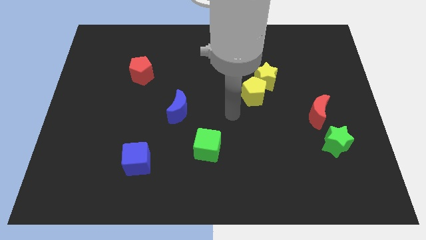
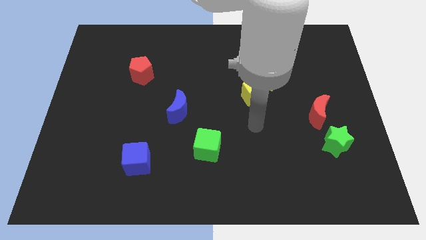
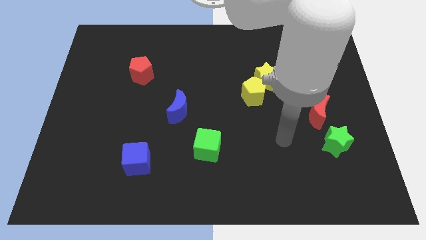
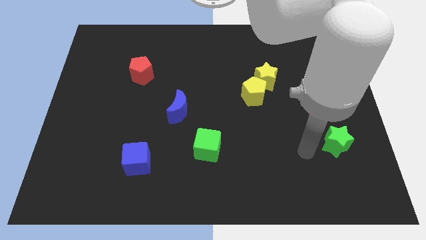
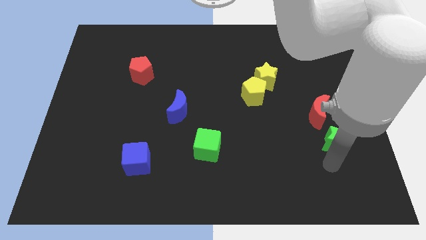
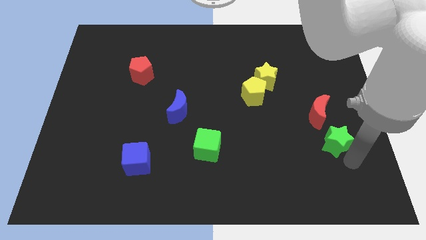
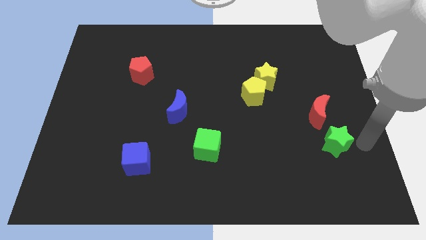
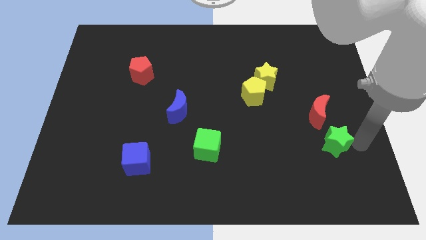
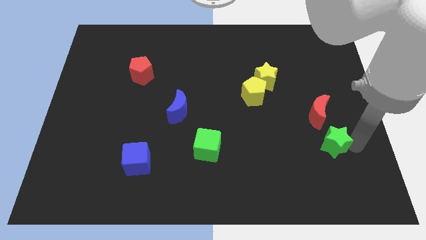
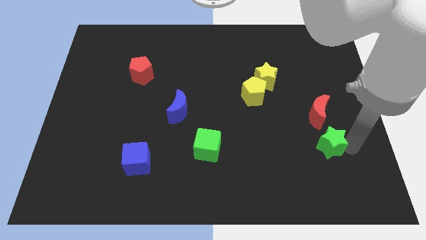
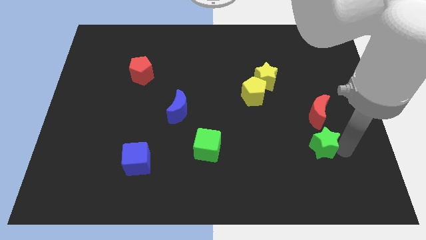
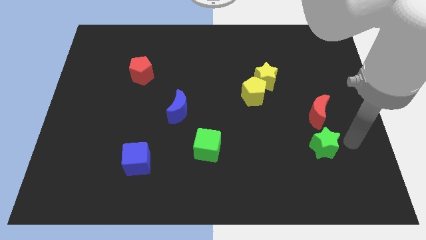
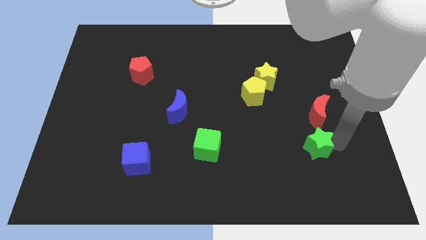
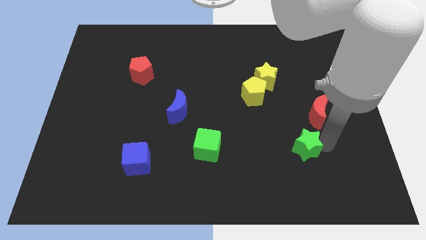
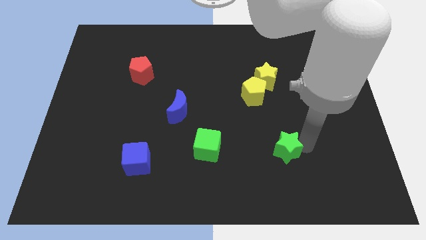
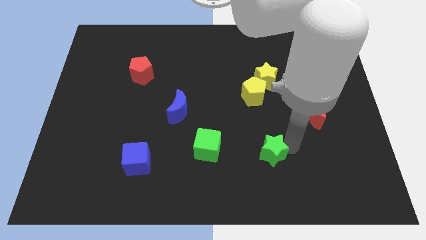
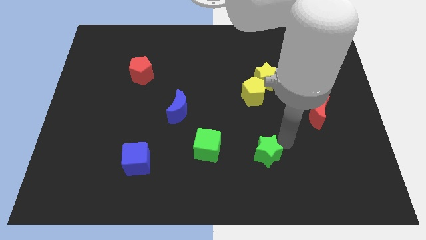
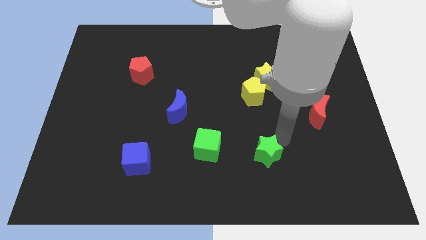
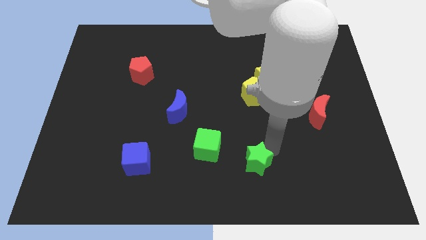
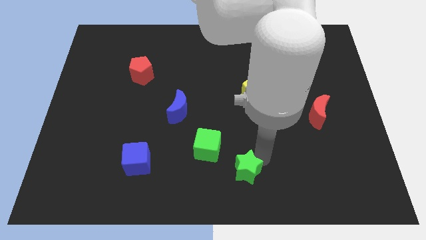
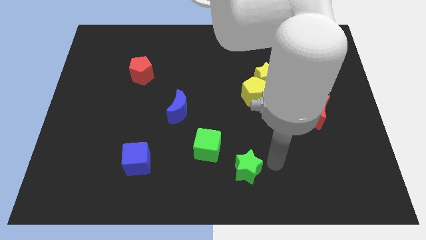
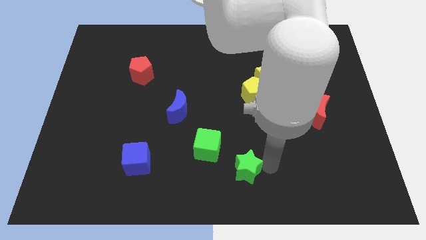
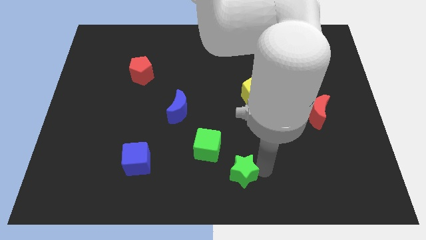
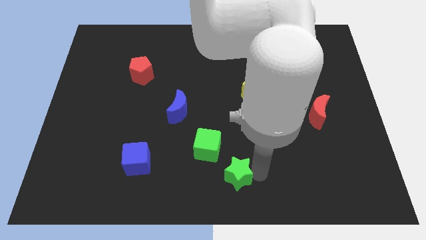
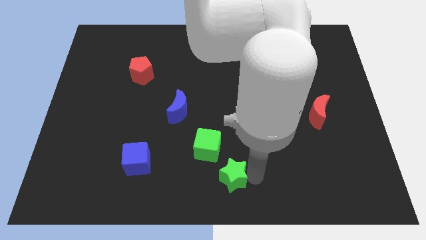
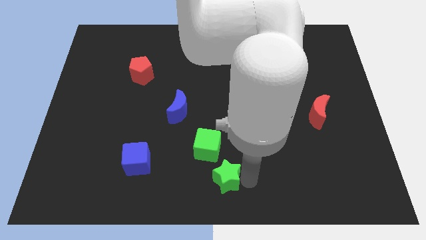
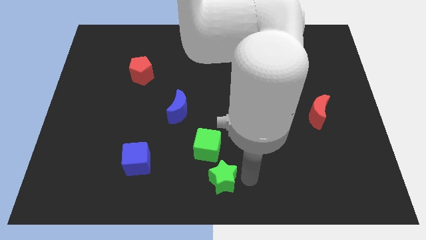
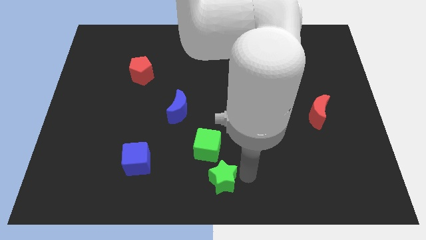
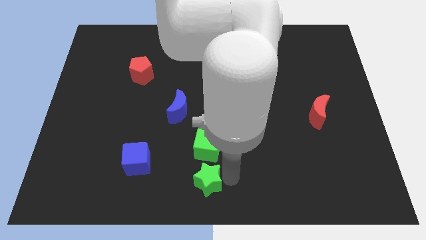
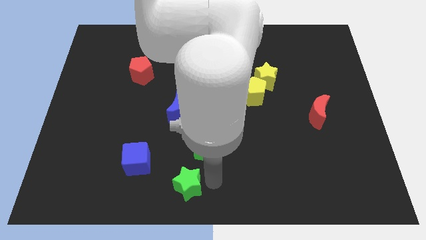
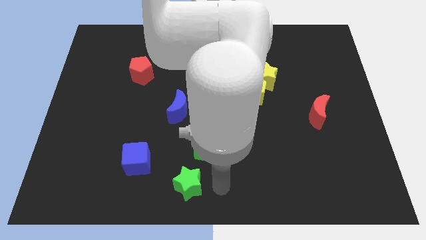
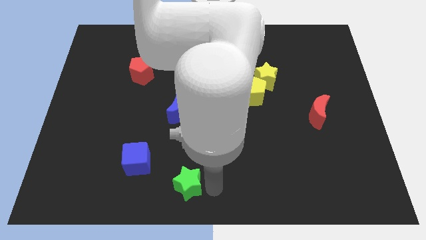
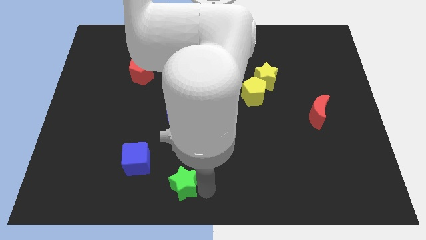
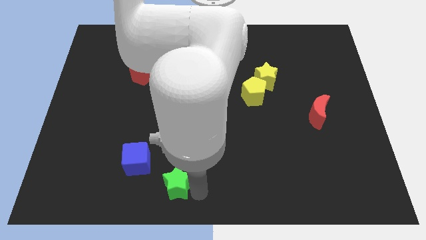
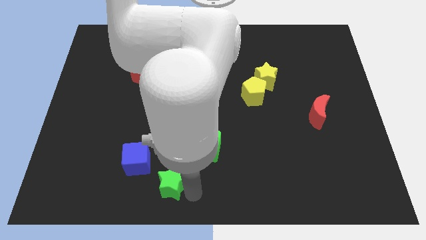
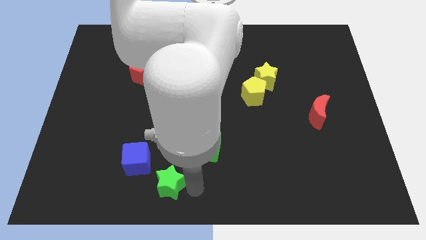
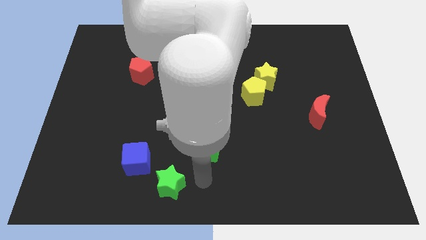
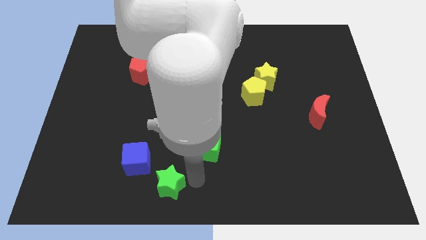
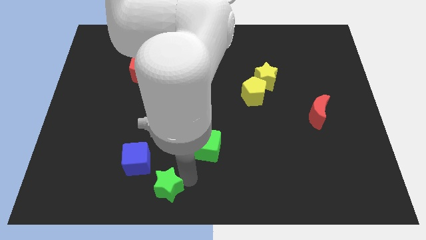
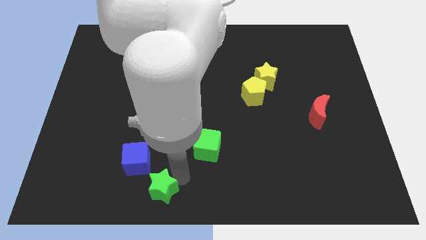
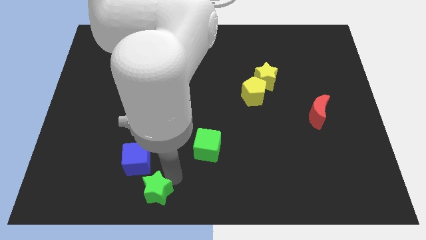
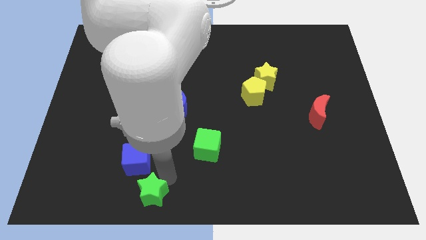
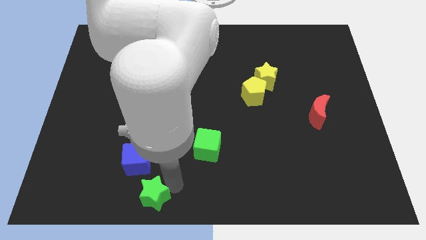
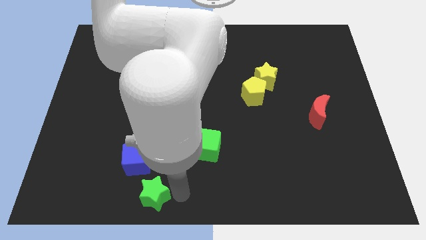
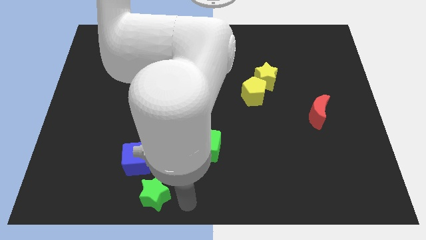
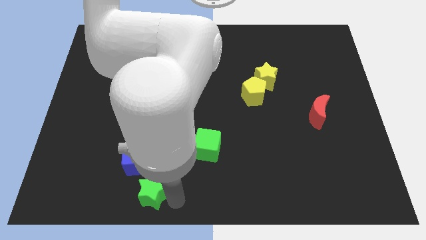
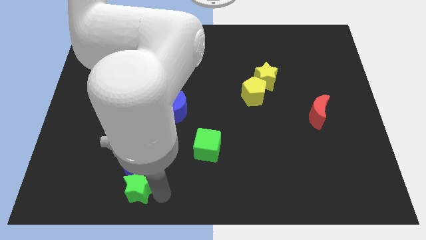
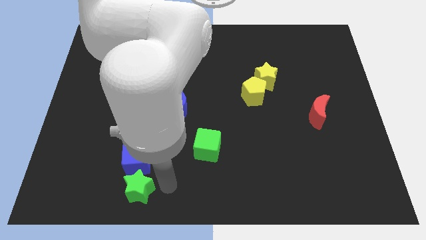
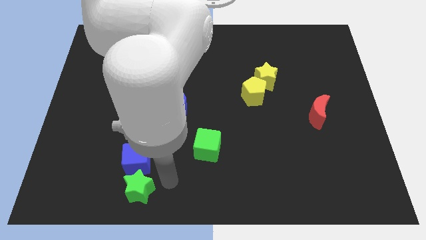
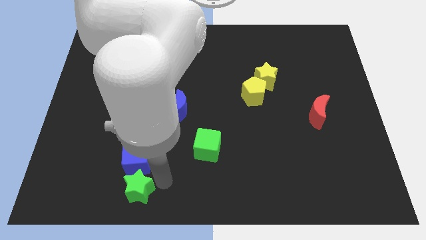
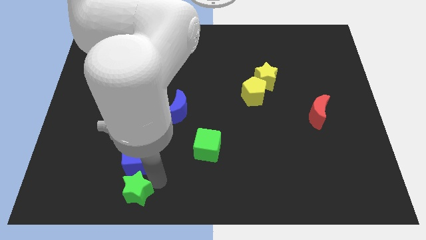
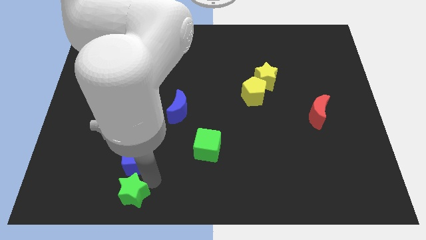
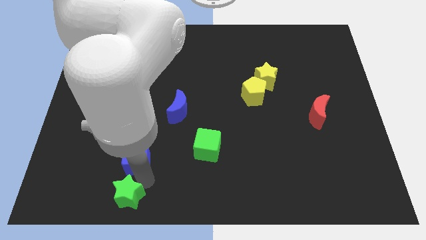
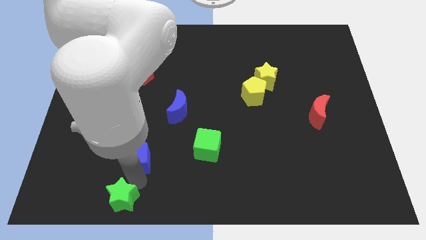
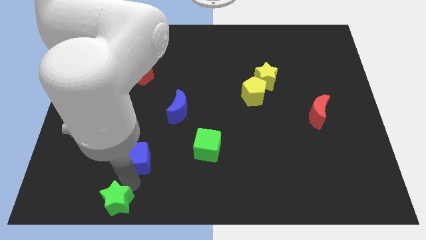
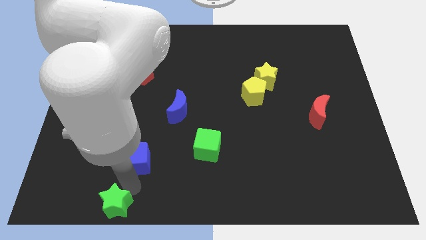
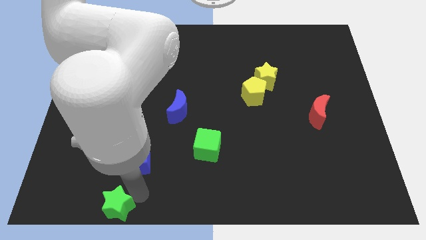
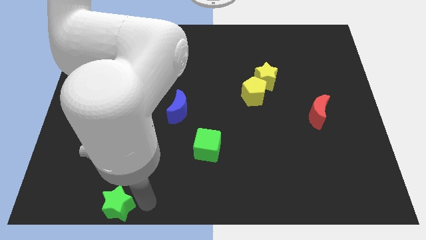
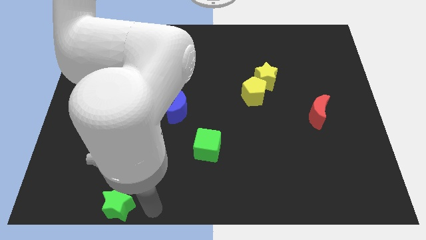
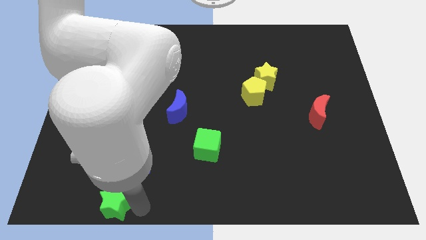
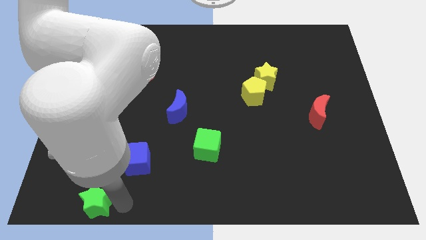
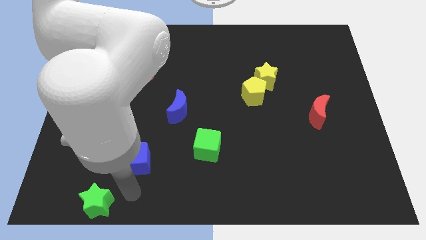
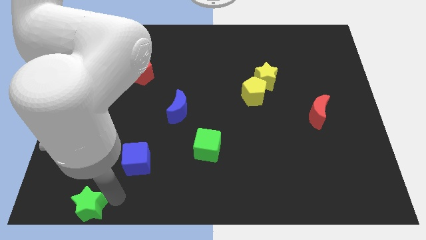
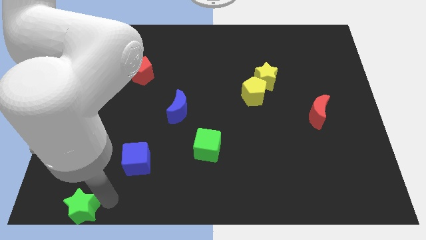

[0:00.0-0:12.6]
put the green star to the bottom left corner

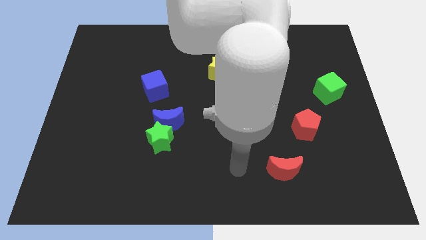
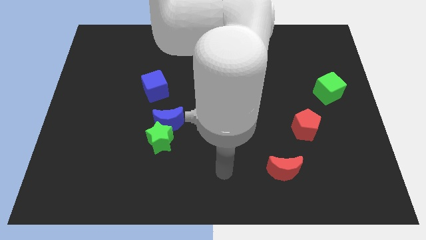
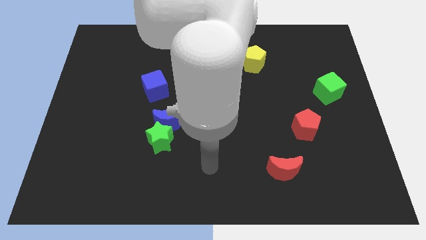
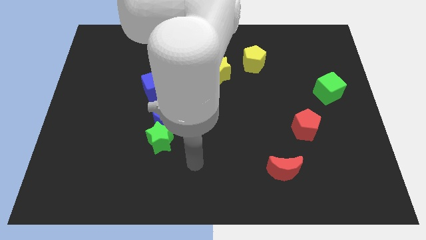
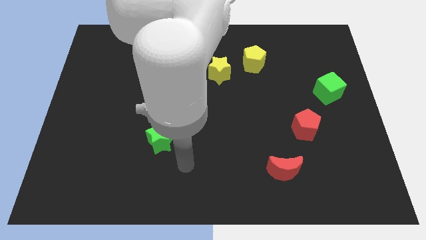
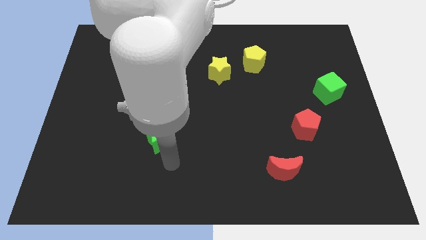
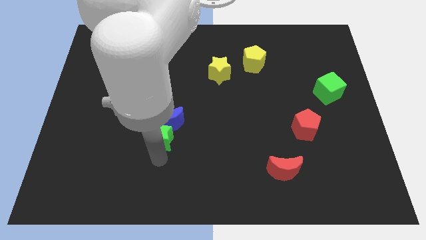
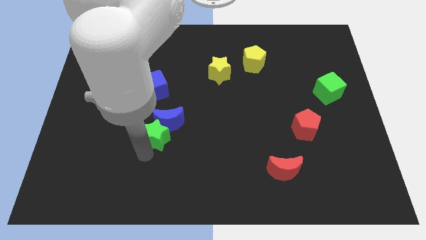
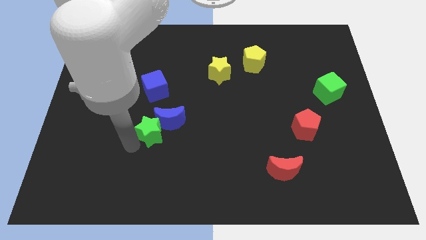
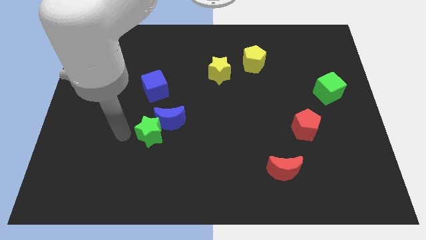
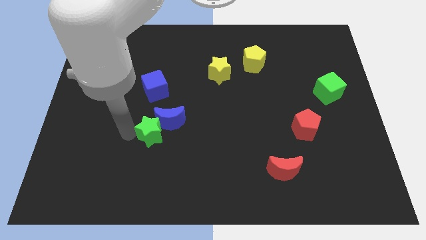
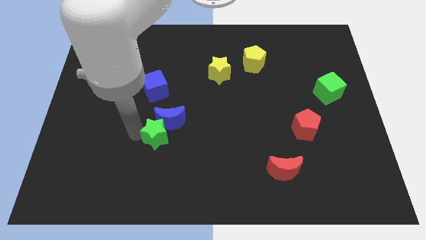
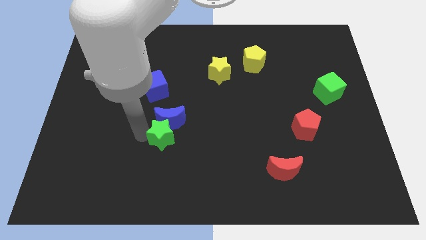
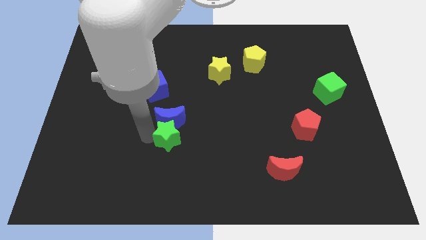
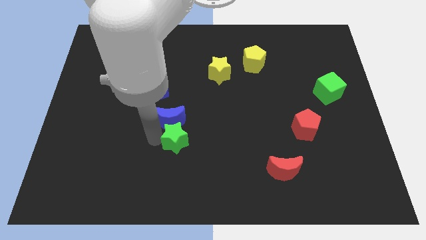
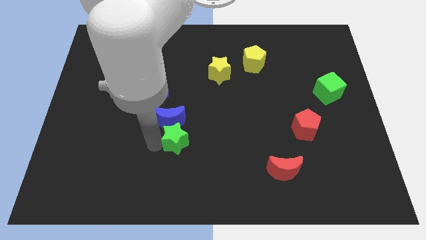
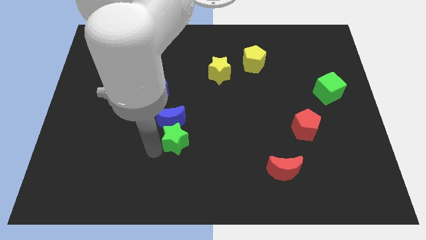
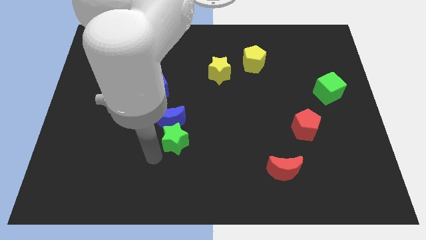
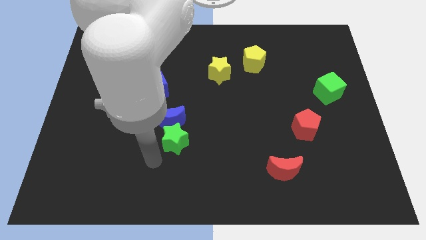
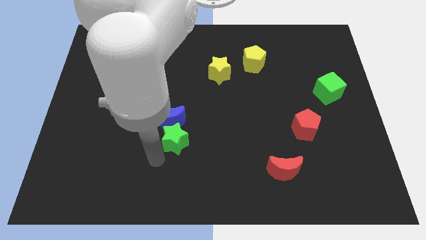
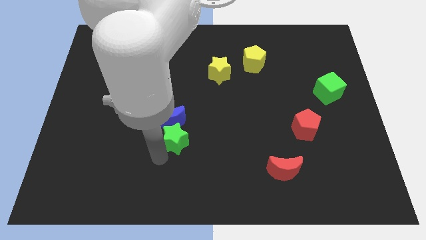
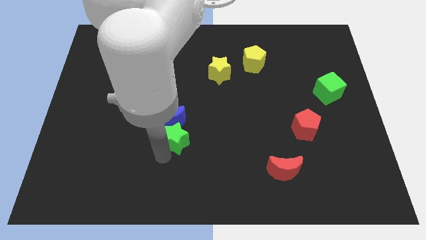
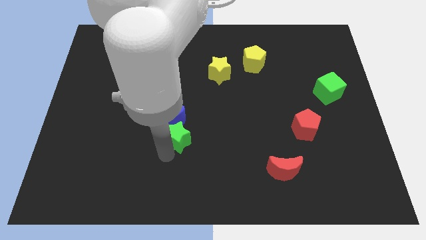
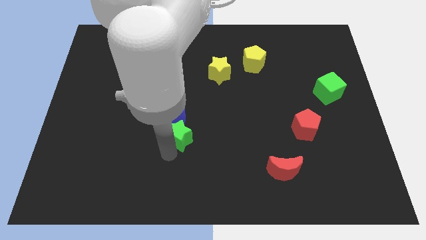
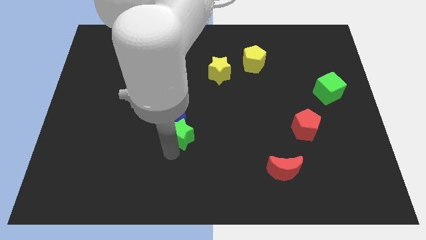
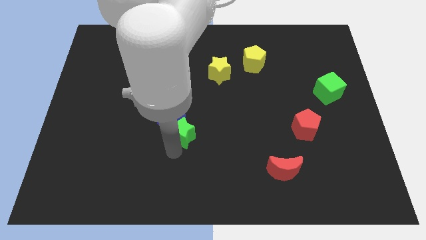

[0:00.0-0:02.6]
put the green star to the middle of the board
